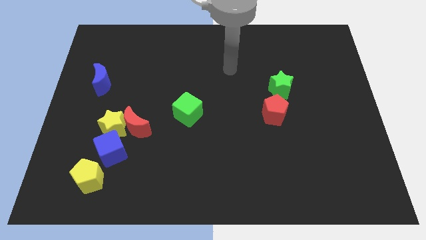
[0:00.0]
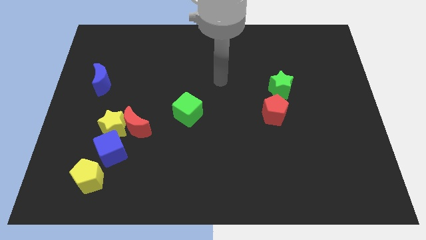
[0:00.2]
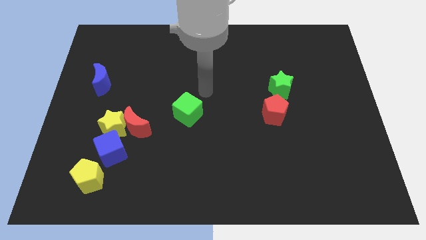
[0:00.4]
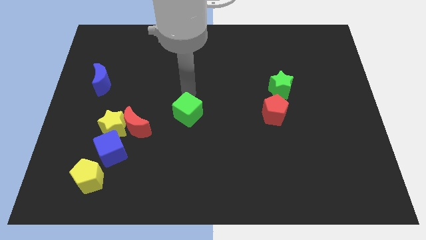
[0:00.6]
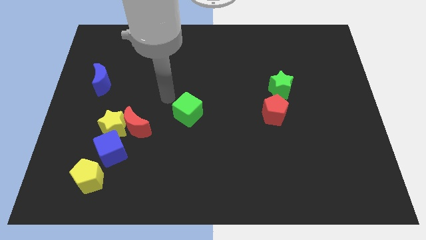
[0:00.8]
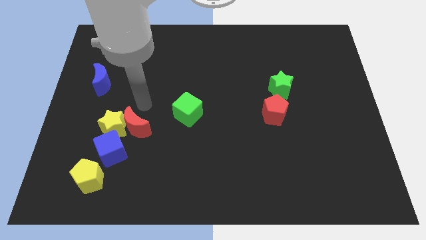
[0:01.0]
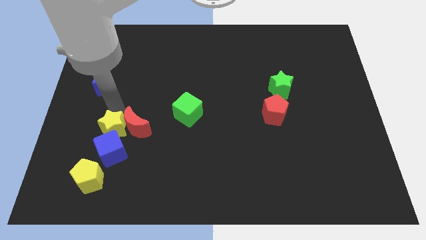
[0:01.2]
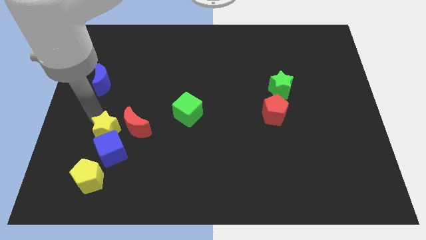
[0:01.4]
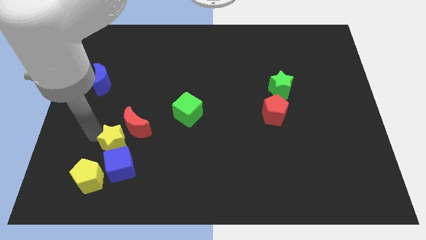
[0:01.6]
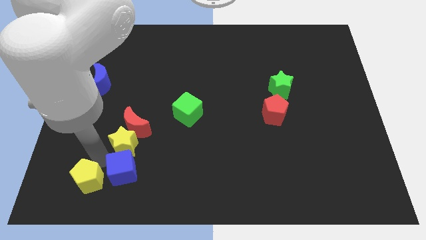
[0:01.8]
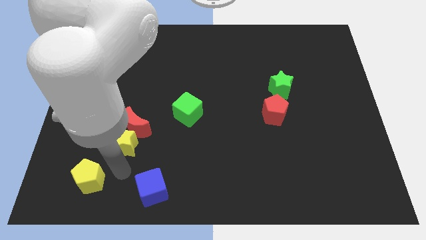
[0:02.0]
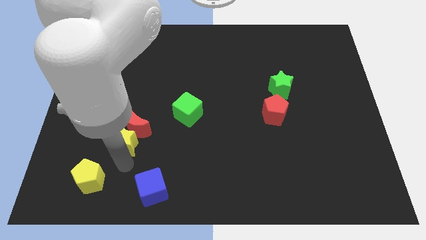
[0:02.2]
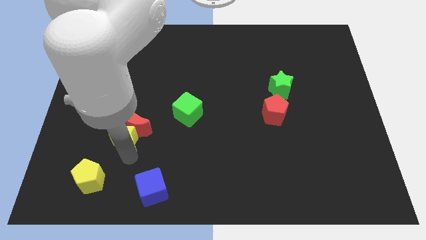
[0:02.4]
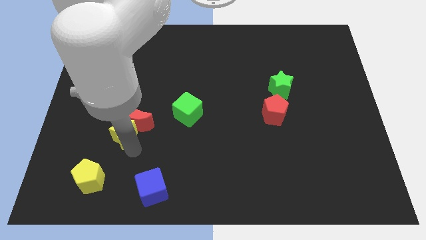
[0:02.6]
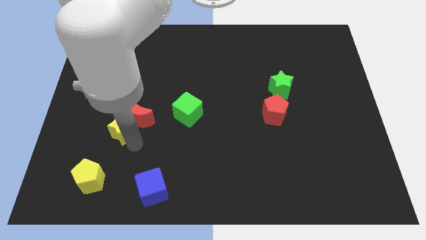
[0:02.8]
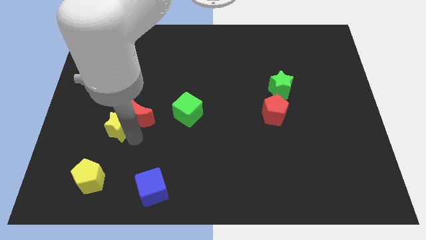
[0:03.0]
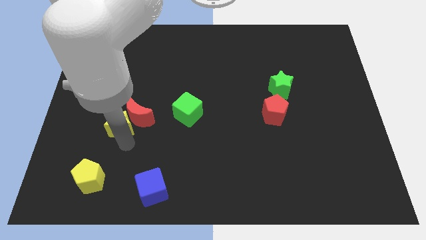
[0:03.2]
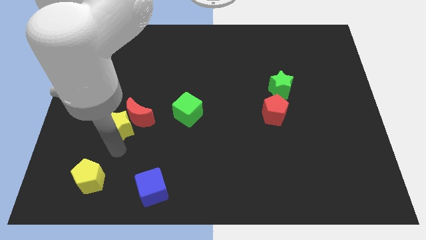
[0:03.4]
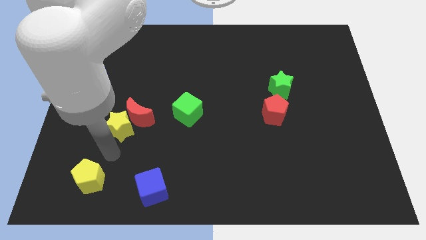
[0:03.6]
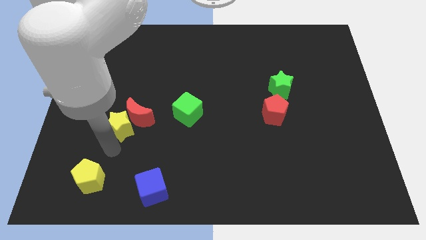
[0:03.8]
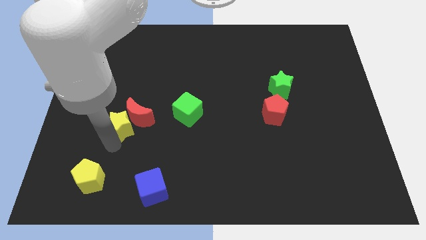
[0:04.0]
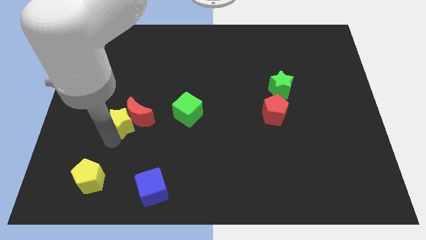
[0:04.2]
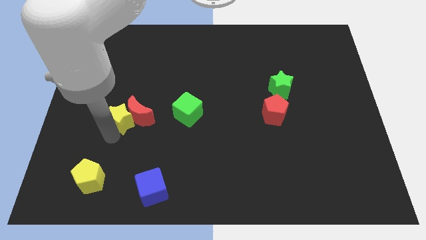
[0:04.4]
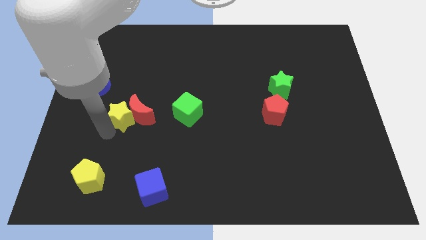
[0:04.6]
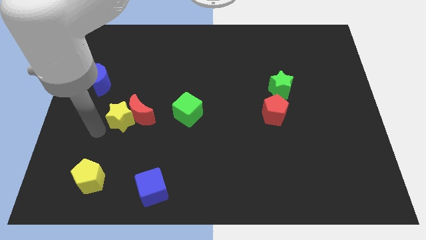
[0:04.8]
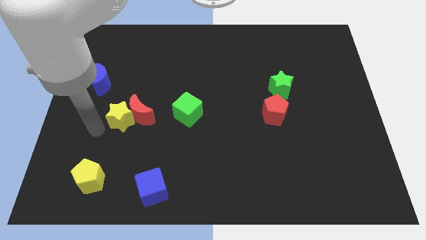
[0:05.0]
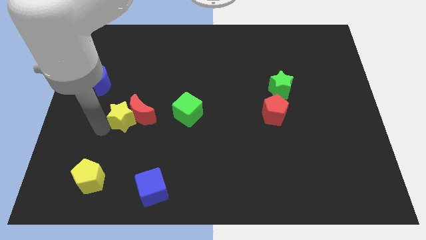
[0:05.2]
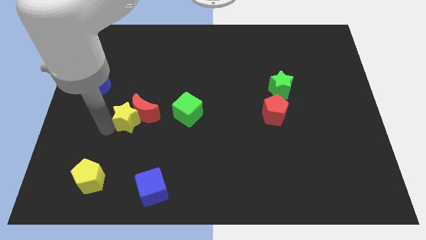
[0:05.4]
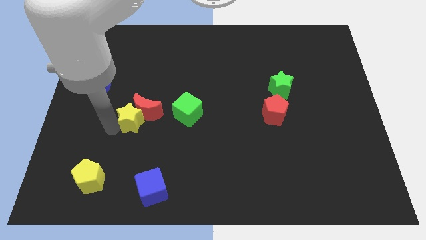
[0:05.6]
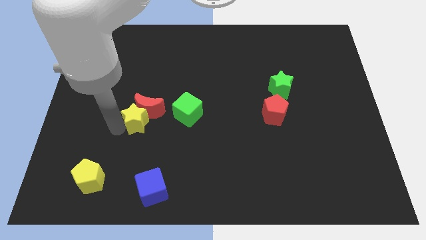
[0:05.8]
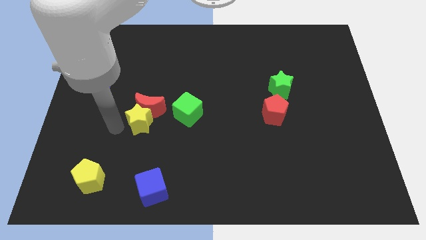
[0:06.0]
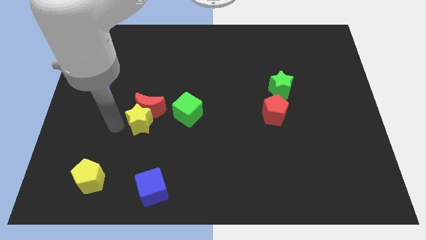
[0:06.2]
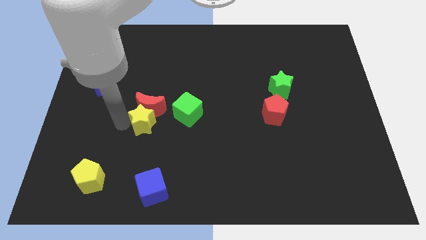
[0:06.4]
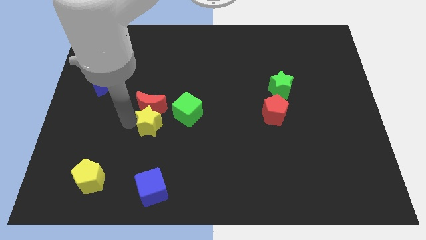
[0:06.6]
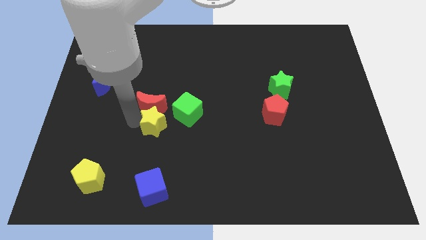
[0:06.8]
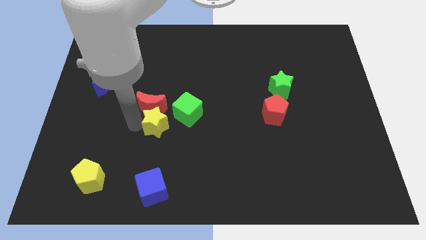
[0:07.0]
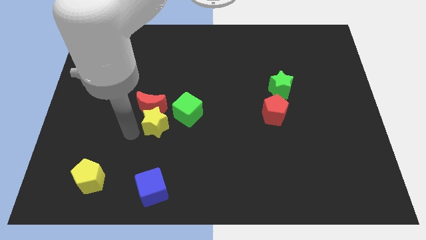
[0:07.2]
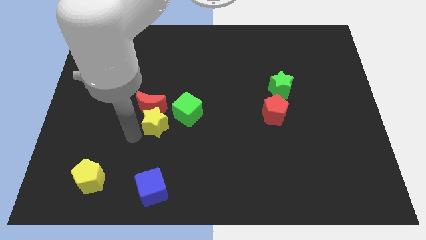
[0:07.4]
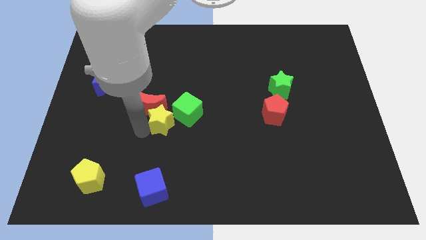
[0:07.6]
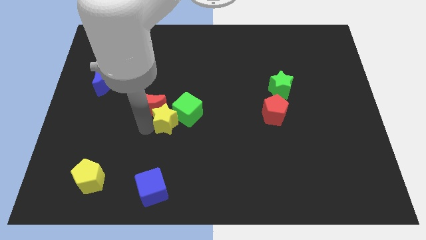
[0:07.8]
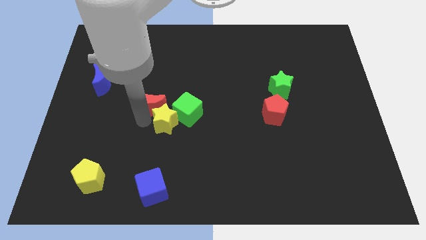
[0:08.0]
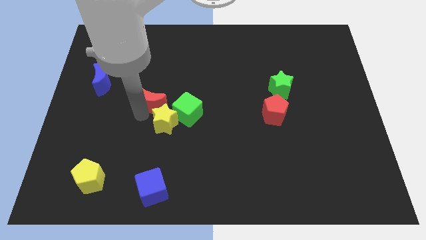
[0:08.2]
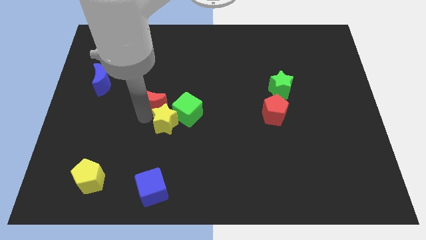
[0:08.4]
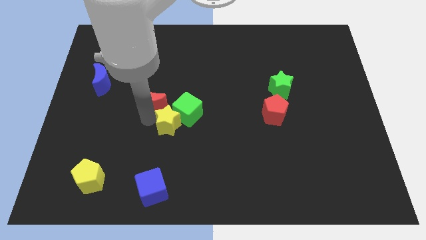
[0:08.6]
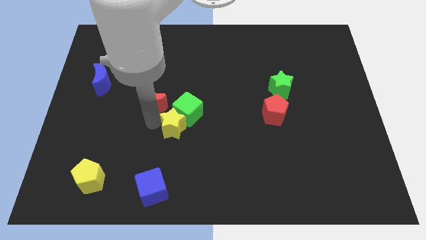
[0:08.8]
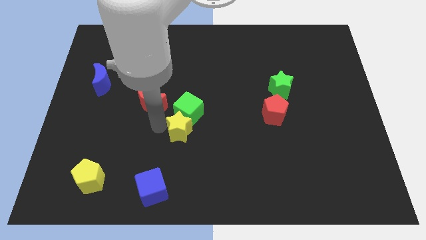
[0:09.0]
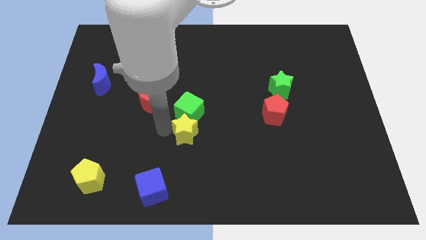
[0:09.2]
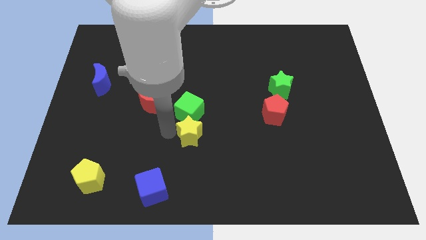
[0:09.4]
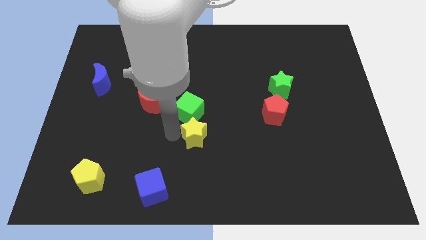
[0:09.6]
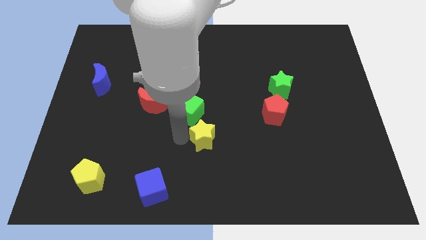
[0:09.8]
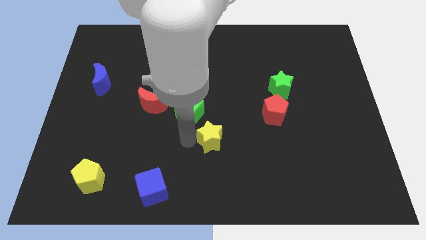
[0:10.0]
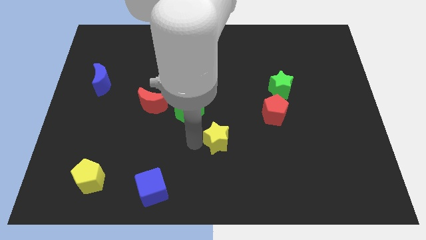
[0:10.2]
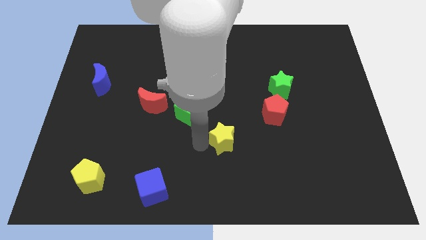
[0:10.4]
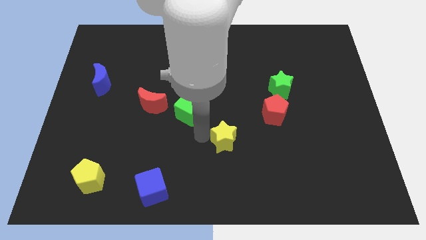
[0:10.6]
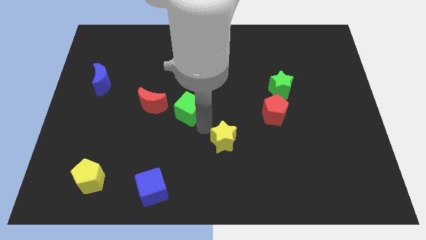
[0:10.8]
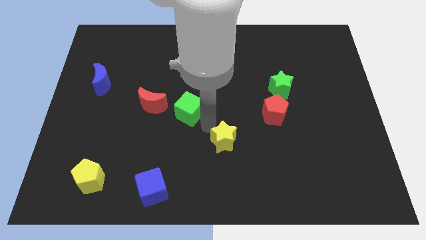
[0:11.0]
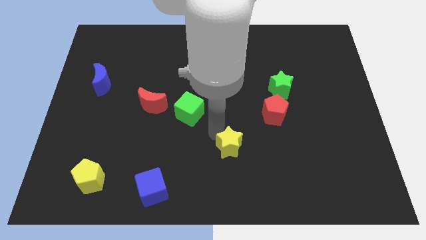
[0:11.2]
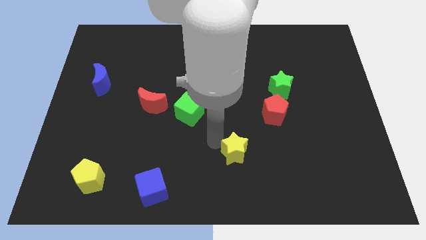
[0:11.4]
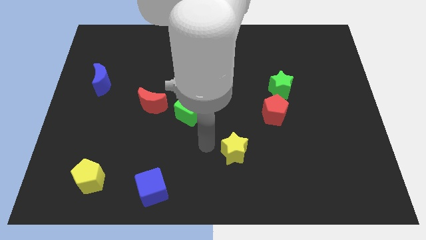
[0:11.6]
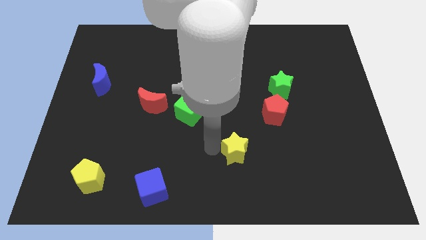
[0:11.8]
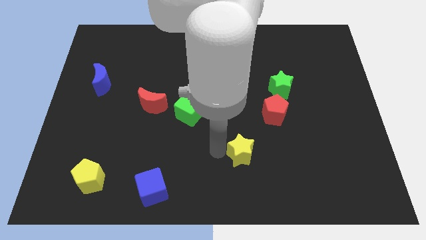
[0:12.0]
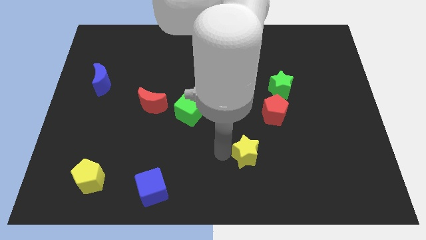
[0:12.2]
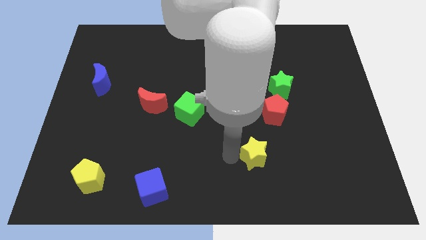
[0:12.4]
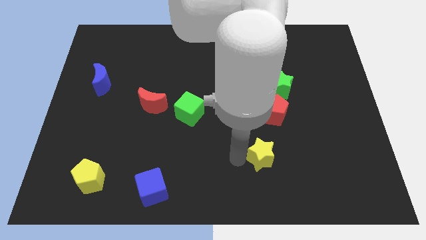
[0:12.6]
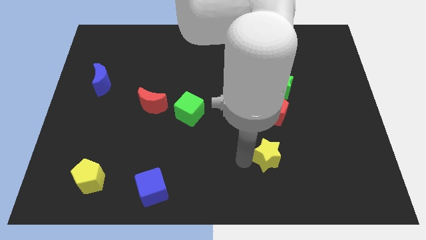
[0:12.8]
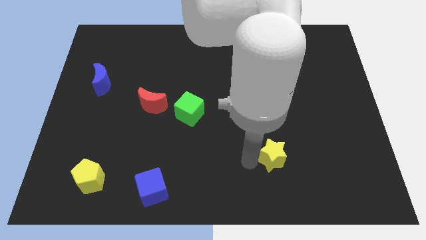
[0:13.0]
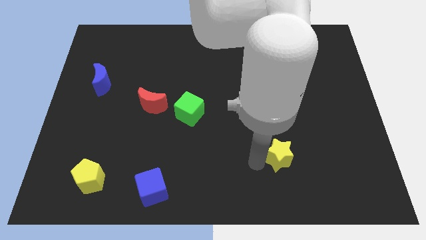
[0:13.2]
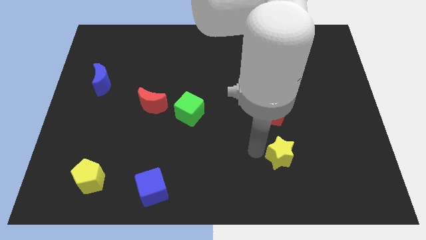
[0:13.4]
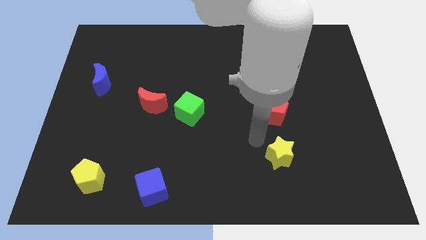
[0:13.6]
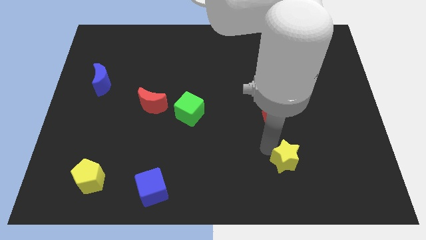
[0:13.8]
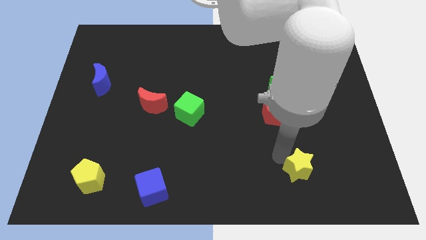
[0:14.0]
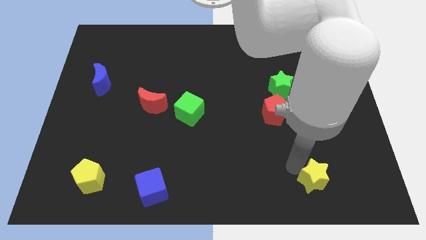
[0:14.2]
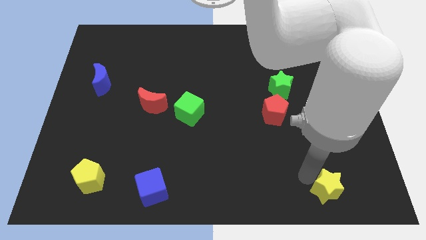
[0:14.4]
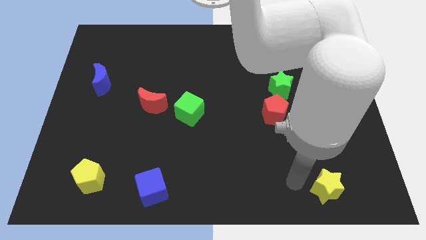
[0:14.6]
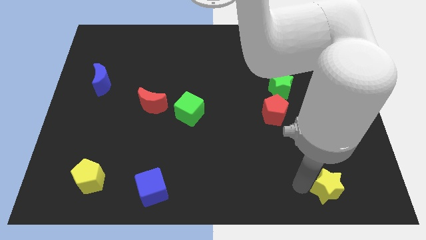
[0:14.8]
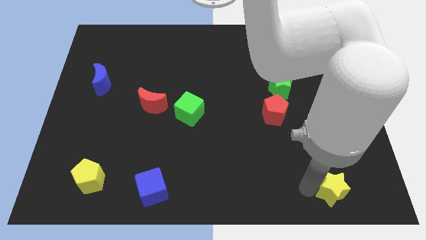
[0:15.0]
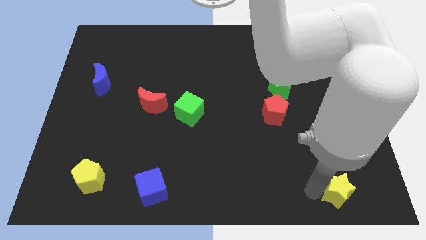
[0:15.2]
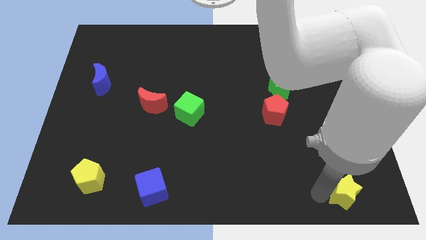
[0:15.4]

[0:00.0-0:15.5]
slide the yellow star to the bottom right
